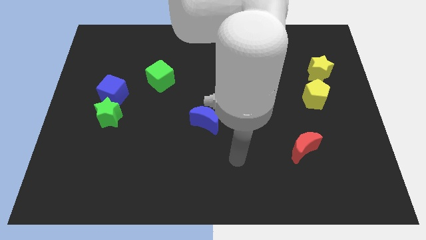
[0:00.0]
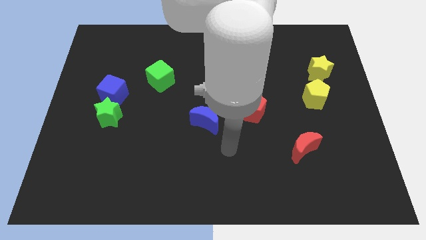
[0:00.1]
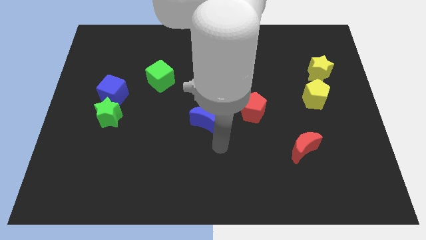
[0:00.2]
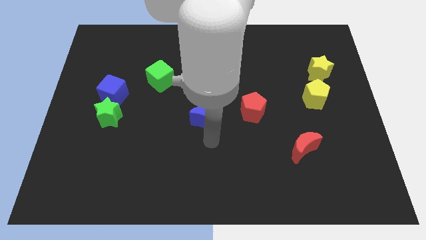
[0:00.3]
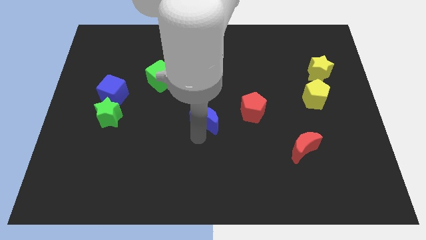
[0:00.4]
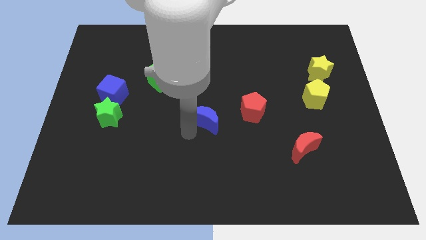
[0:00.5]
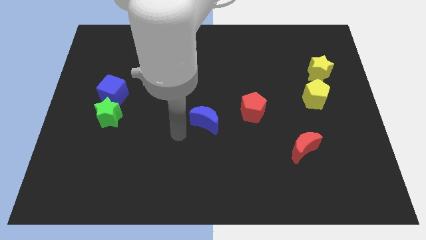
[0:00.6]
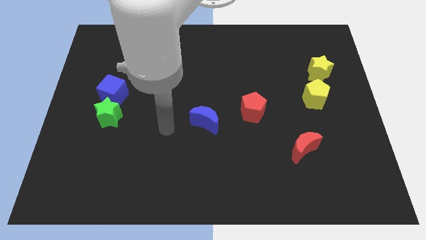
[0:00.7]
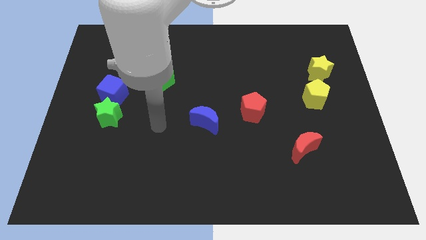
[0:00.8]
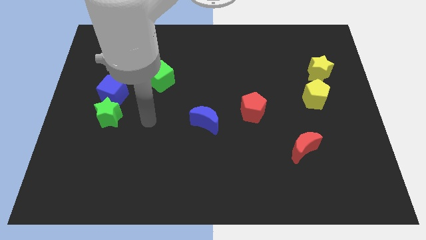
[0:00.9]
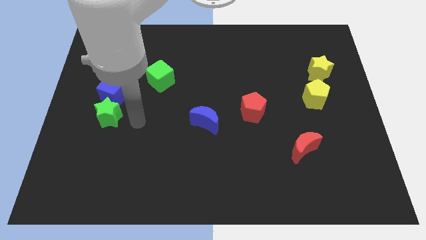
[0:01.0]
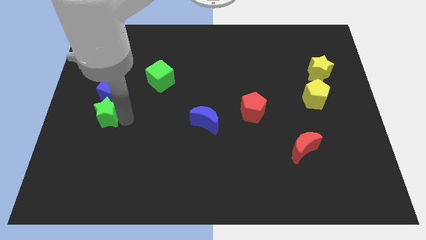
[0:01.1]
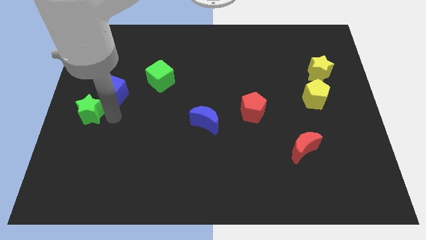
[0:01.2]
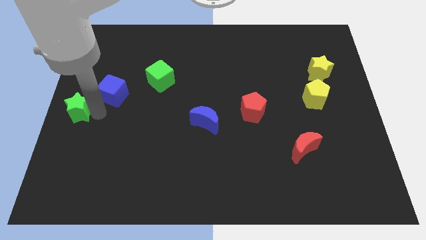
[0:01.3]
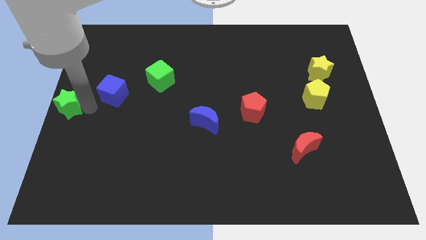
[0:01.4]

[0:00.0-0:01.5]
move the blue cube away from the green star

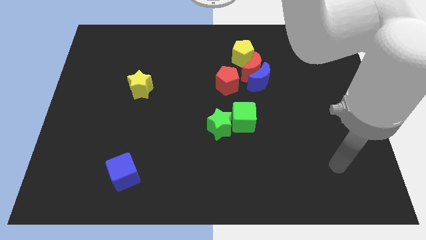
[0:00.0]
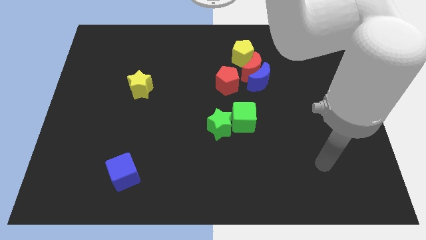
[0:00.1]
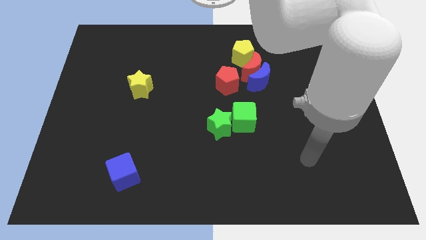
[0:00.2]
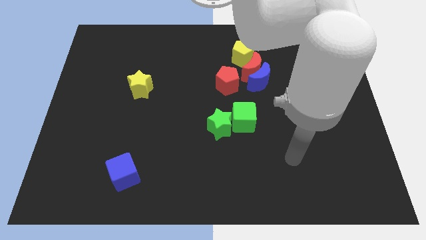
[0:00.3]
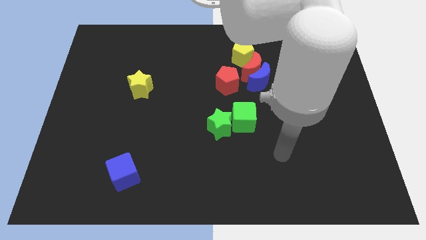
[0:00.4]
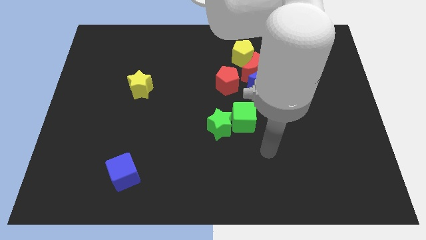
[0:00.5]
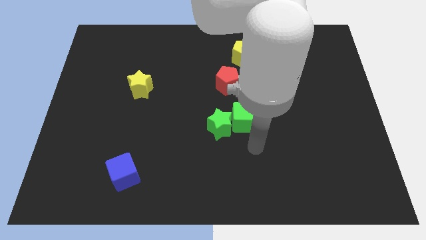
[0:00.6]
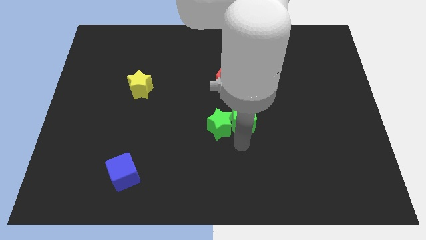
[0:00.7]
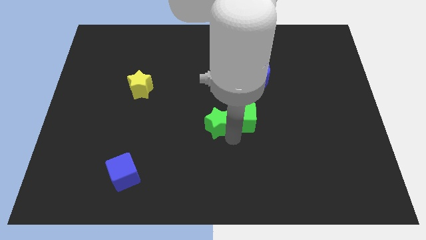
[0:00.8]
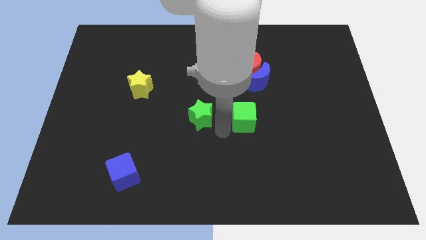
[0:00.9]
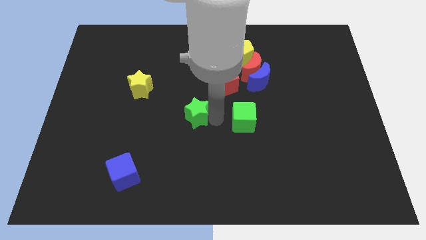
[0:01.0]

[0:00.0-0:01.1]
pull the green cube apart from the green star

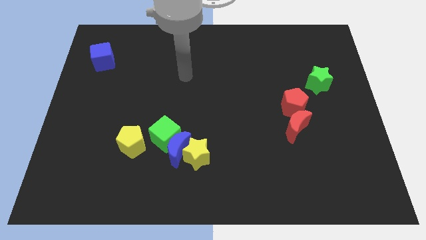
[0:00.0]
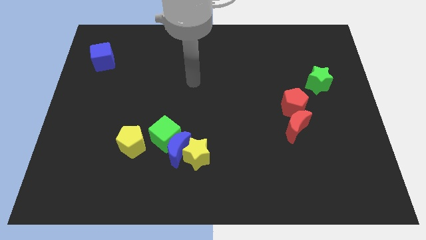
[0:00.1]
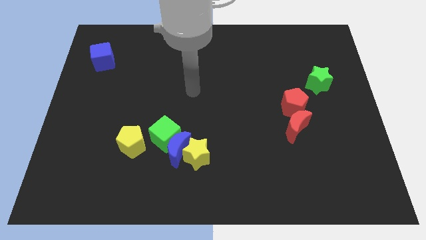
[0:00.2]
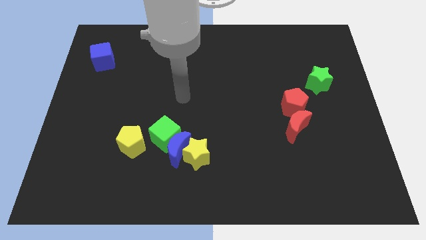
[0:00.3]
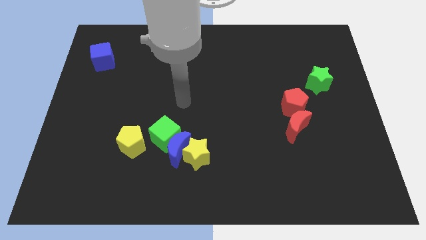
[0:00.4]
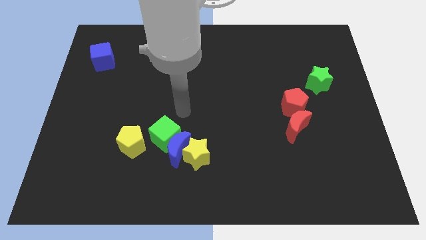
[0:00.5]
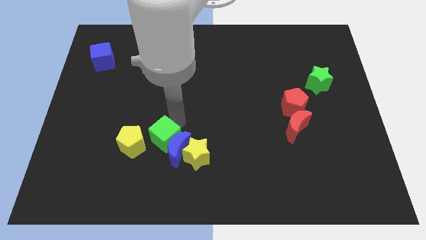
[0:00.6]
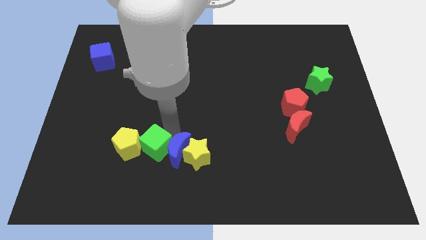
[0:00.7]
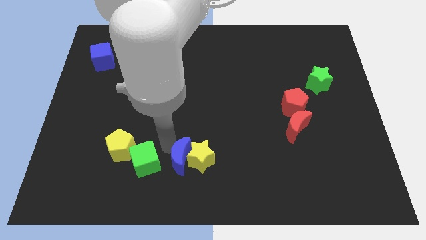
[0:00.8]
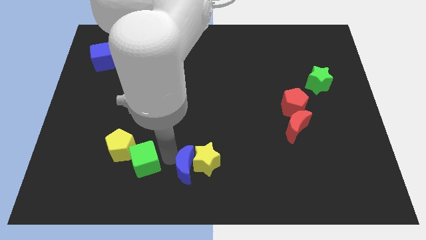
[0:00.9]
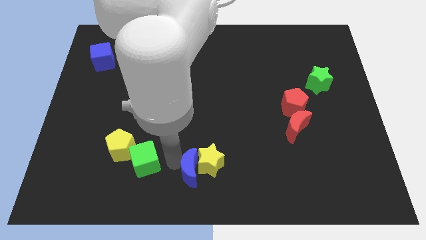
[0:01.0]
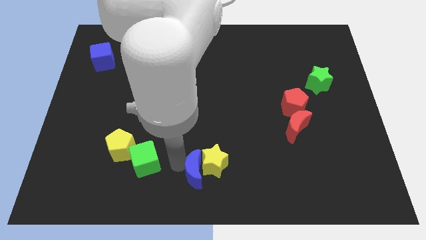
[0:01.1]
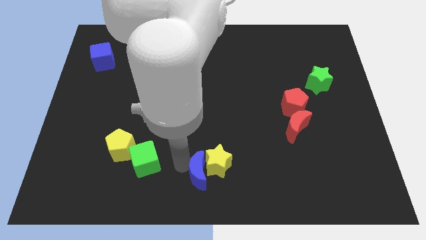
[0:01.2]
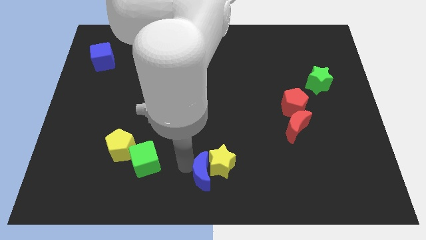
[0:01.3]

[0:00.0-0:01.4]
pull the yellow star apart from the blue moon and green cube

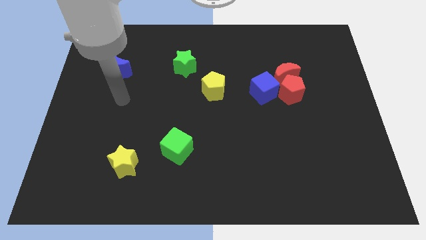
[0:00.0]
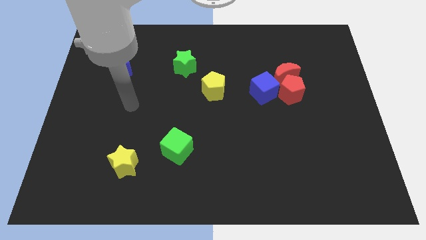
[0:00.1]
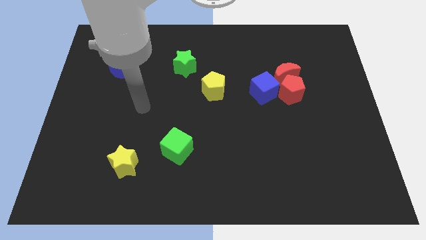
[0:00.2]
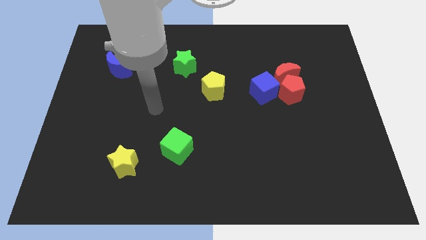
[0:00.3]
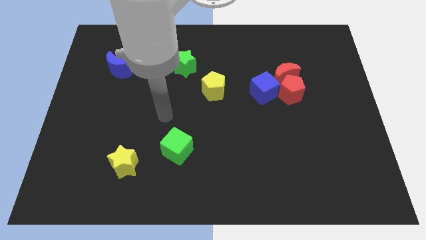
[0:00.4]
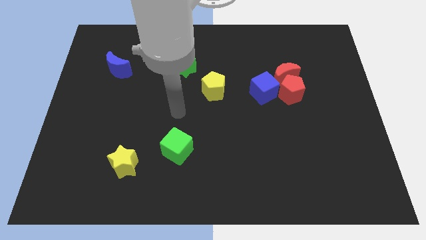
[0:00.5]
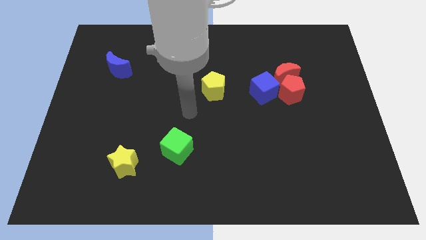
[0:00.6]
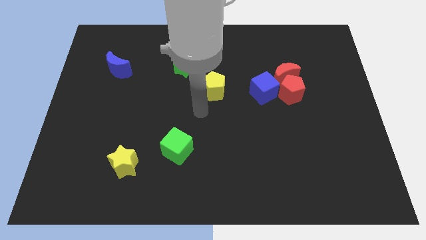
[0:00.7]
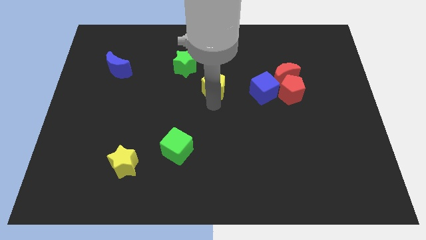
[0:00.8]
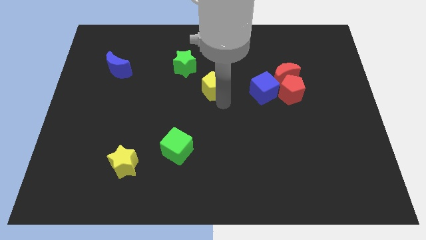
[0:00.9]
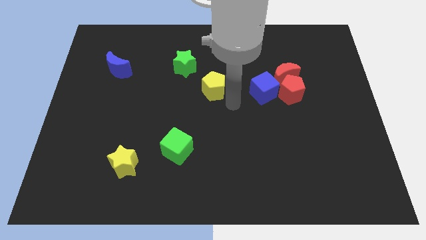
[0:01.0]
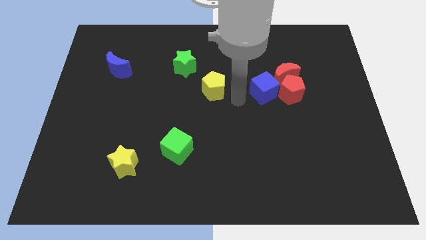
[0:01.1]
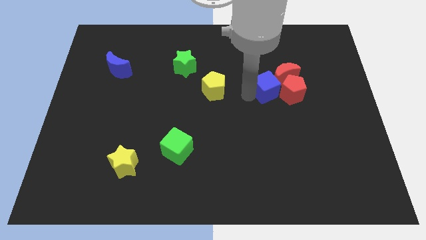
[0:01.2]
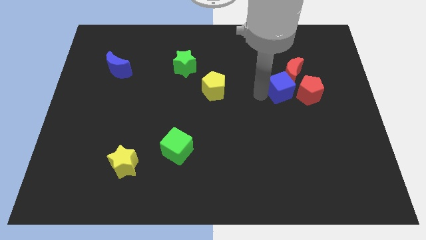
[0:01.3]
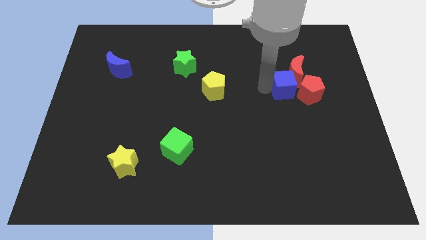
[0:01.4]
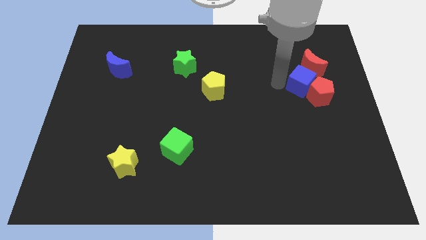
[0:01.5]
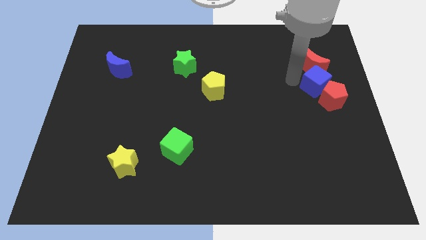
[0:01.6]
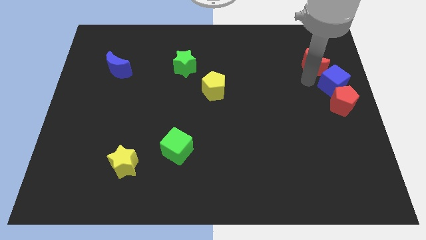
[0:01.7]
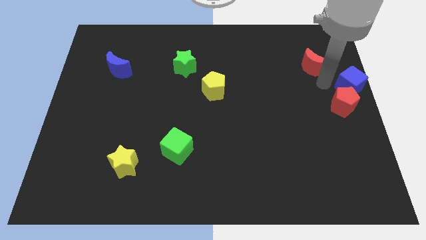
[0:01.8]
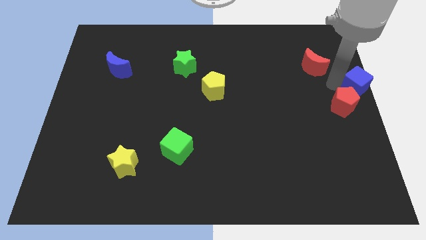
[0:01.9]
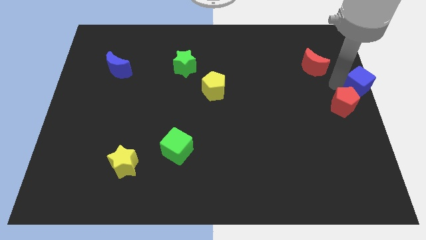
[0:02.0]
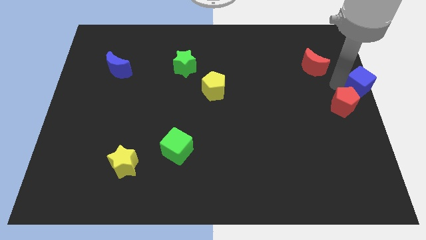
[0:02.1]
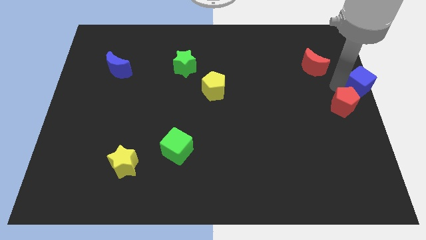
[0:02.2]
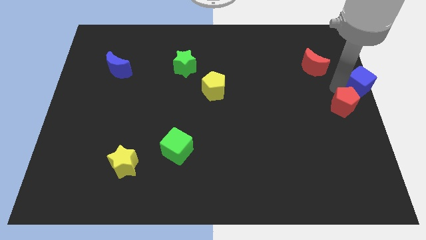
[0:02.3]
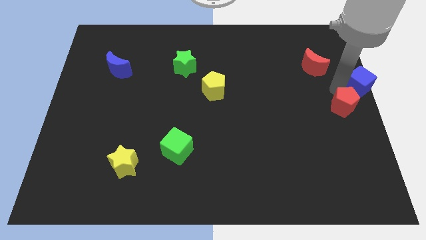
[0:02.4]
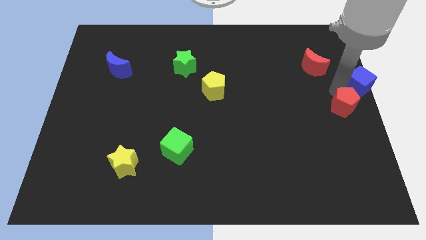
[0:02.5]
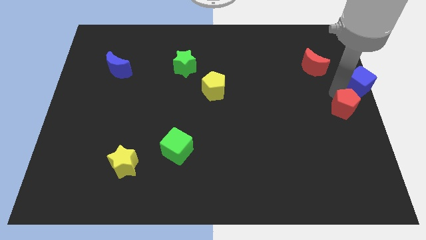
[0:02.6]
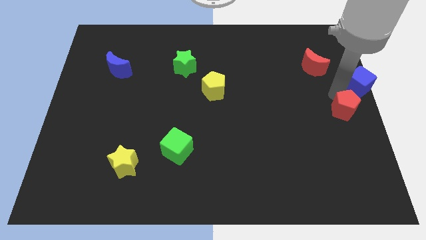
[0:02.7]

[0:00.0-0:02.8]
move the red pentagon away from the red moon and blue cube

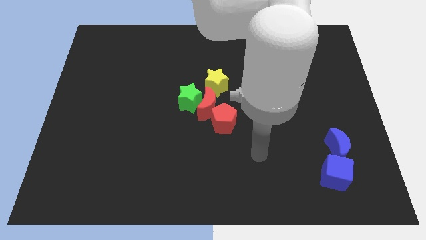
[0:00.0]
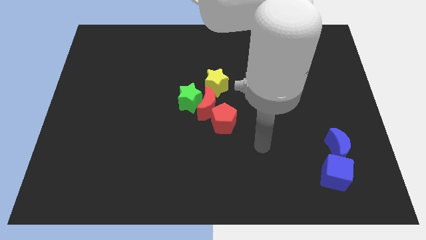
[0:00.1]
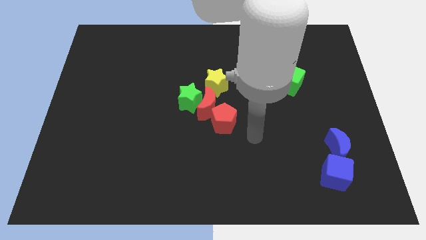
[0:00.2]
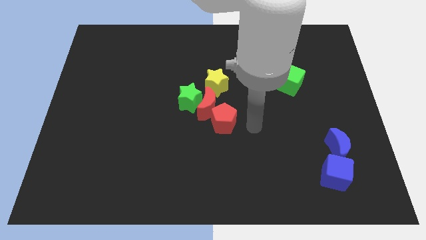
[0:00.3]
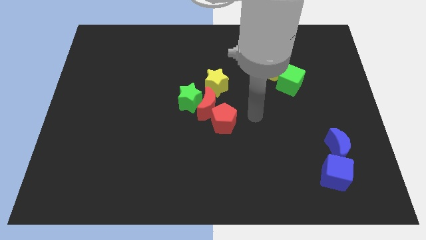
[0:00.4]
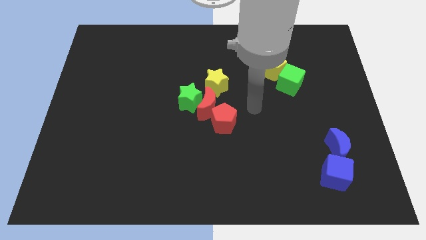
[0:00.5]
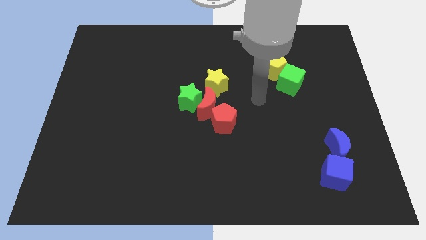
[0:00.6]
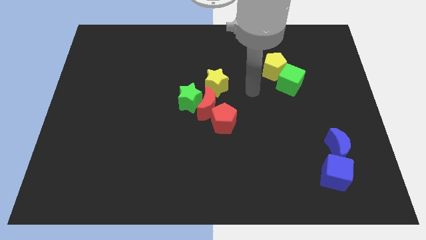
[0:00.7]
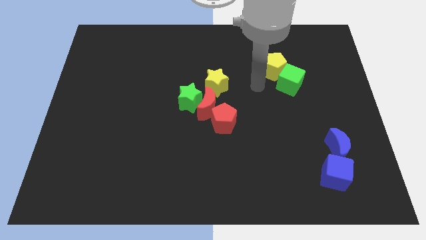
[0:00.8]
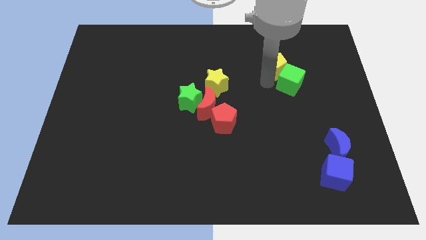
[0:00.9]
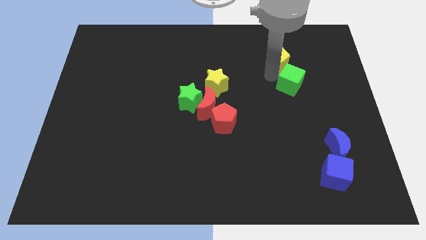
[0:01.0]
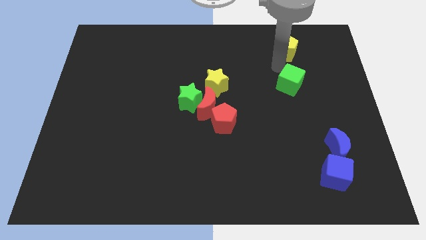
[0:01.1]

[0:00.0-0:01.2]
move the green cube away from the yellow pentagon

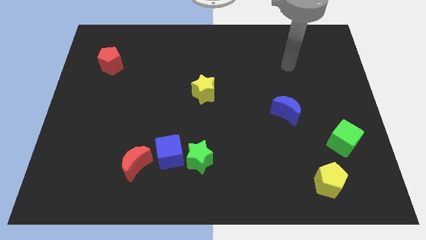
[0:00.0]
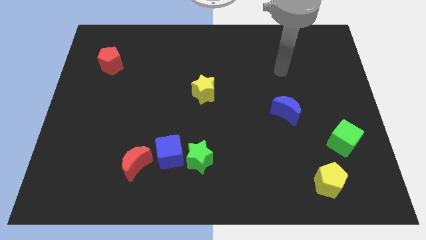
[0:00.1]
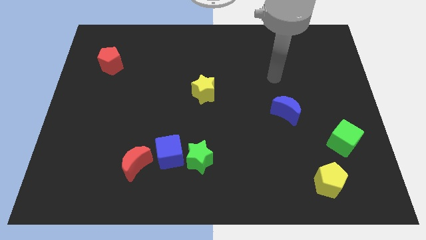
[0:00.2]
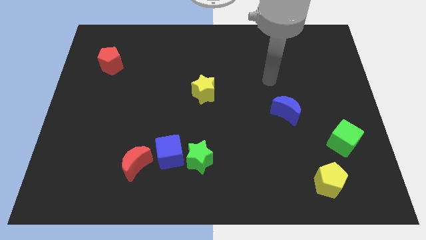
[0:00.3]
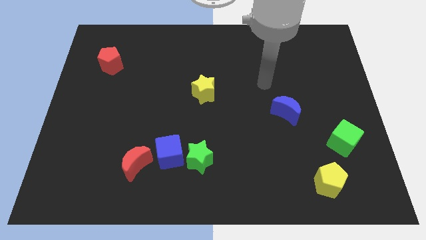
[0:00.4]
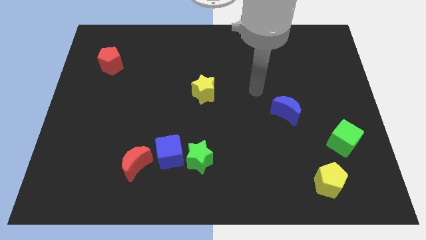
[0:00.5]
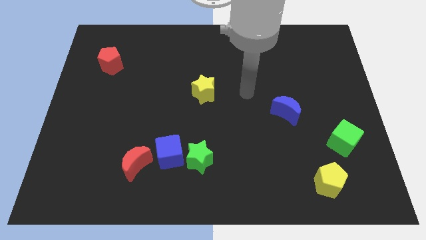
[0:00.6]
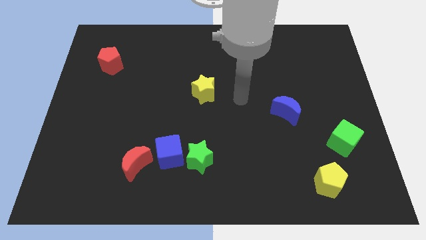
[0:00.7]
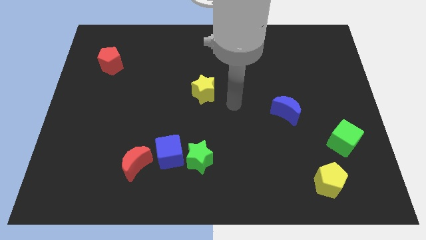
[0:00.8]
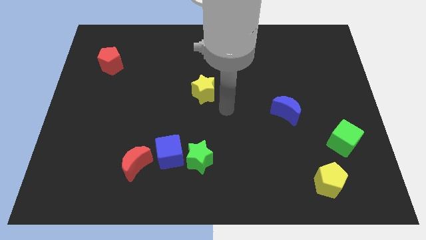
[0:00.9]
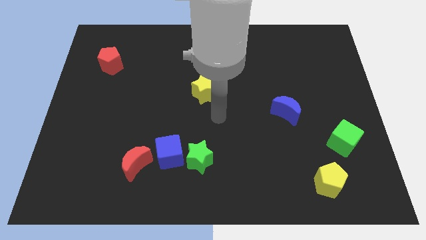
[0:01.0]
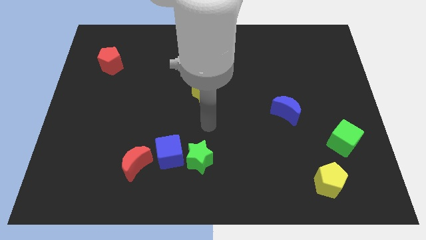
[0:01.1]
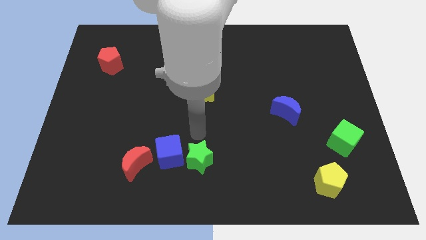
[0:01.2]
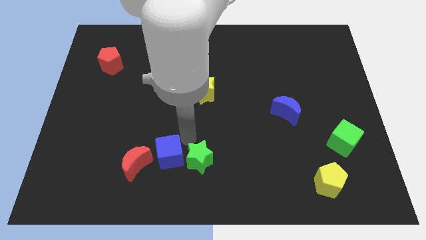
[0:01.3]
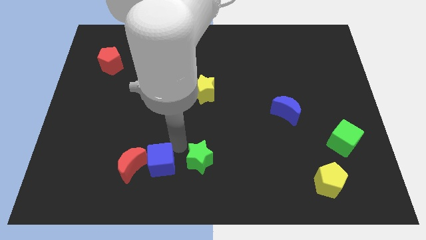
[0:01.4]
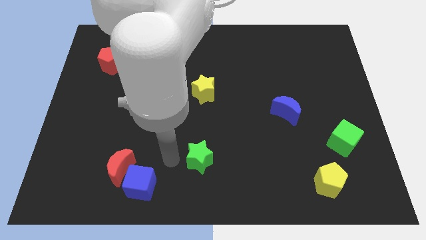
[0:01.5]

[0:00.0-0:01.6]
separate the green star from the blue cube
